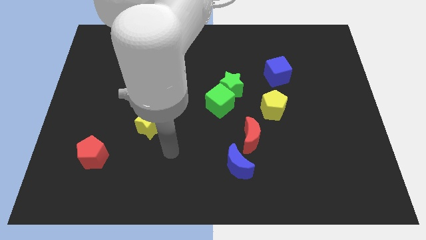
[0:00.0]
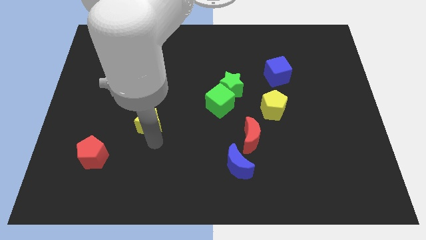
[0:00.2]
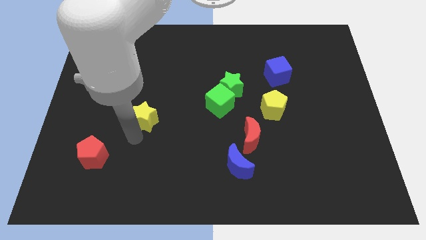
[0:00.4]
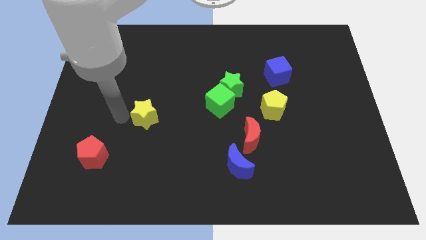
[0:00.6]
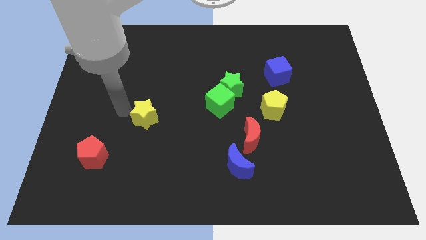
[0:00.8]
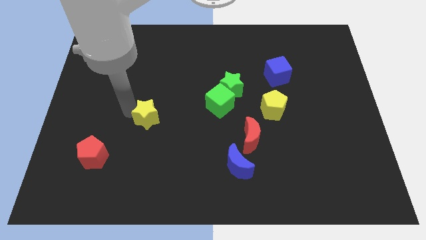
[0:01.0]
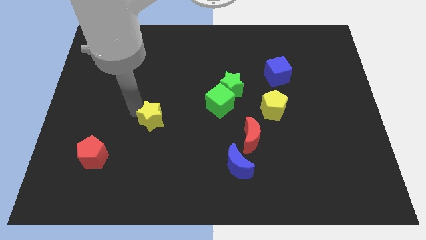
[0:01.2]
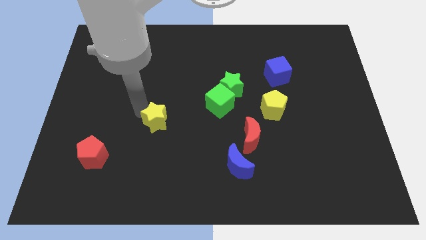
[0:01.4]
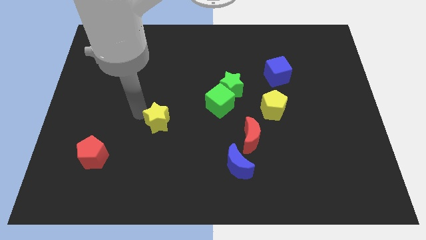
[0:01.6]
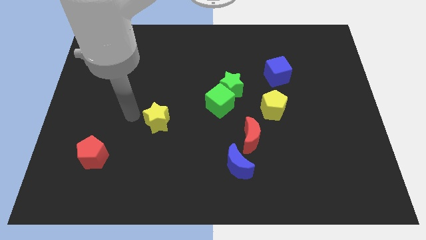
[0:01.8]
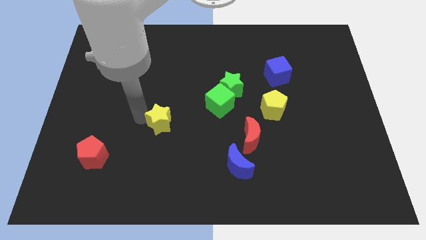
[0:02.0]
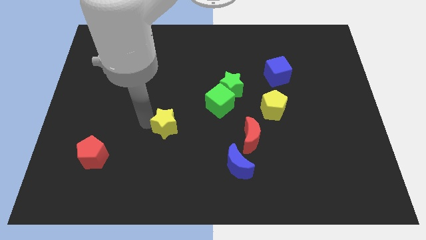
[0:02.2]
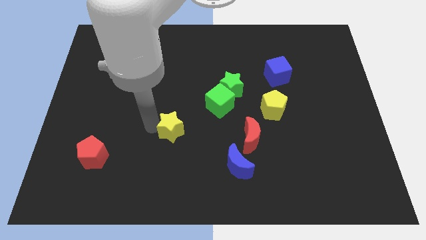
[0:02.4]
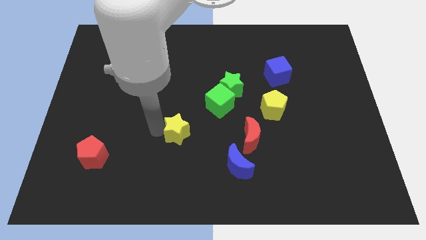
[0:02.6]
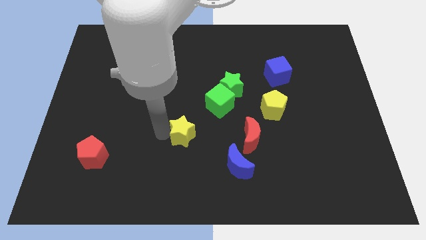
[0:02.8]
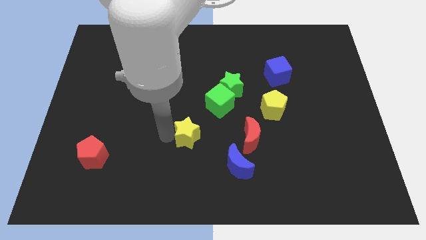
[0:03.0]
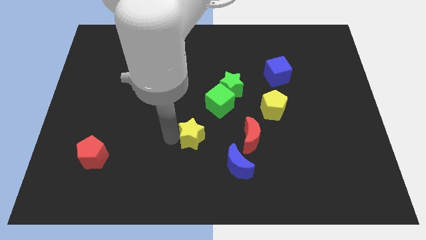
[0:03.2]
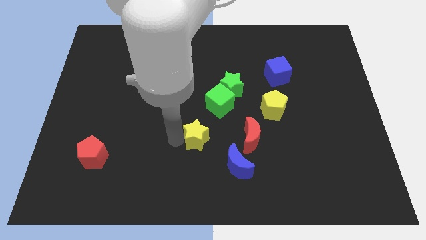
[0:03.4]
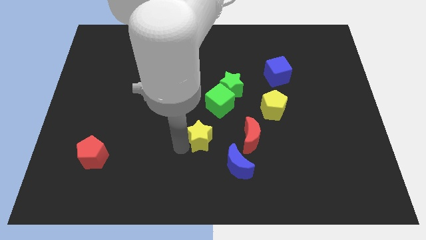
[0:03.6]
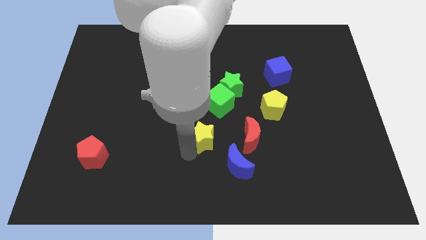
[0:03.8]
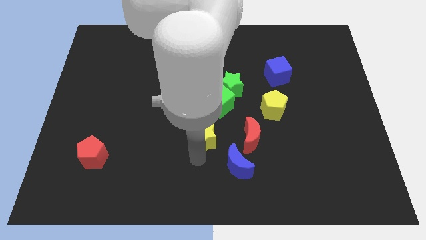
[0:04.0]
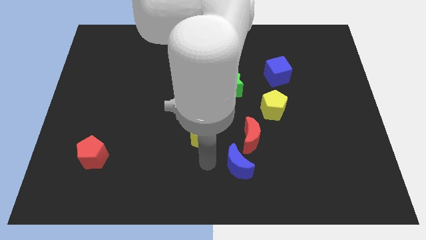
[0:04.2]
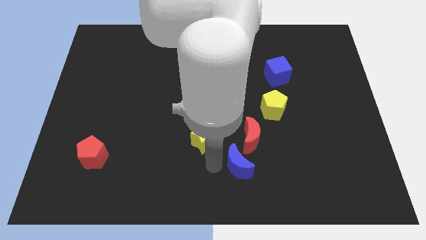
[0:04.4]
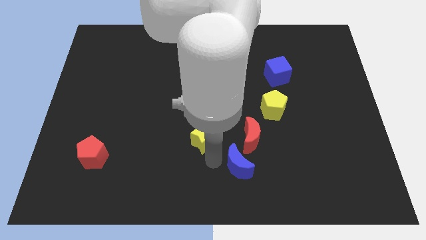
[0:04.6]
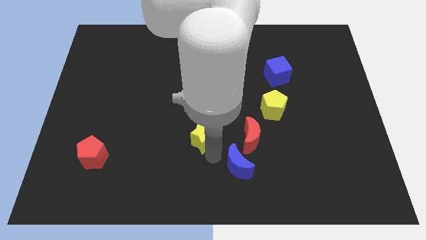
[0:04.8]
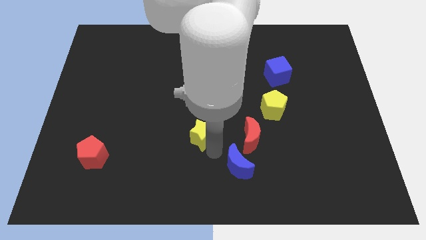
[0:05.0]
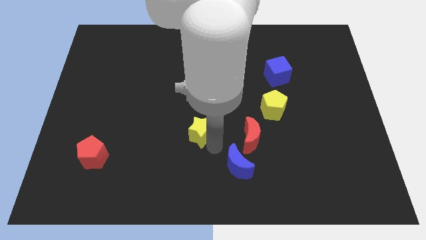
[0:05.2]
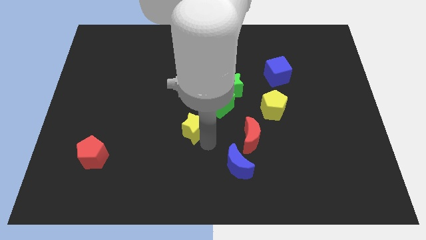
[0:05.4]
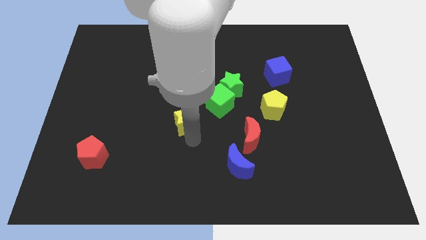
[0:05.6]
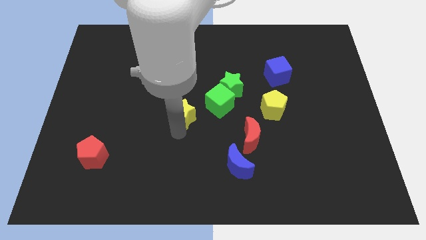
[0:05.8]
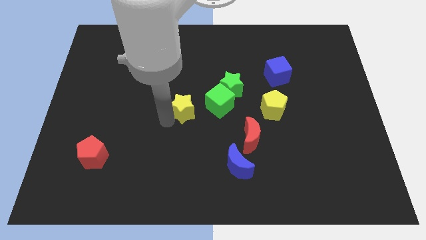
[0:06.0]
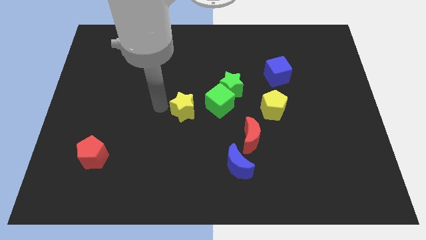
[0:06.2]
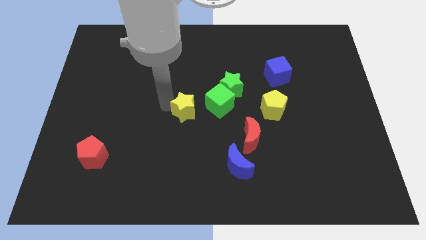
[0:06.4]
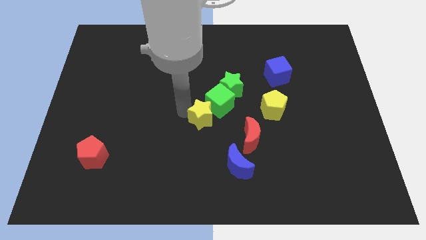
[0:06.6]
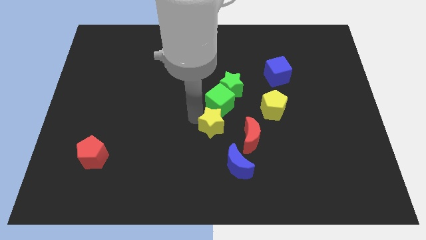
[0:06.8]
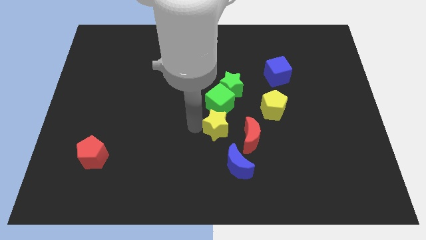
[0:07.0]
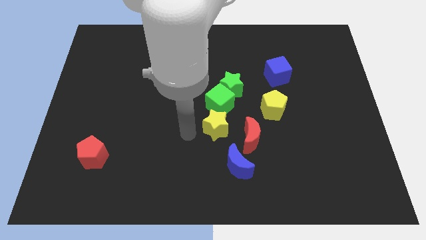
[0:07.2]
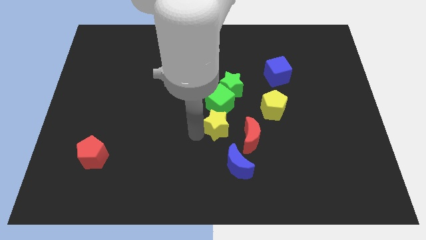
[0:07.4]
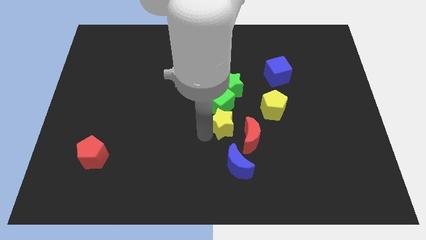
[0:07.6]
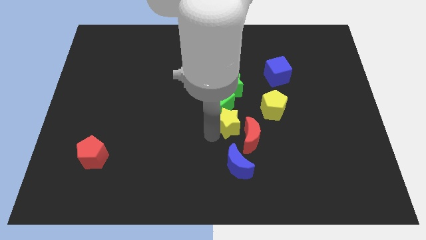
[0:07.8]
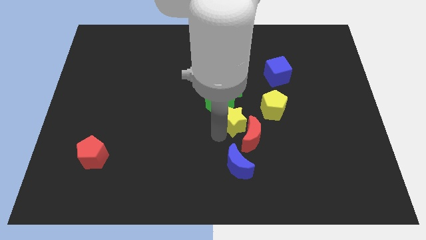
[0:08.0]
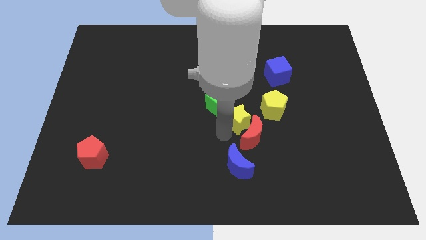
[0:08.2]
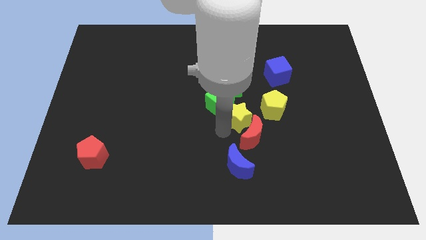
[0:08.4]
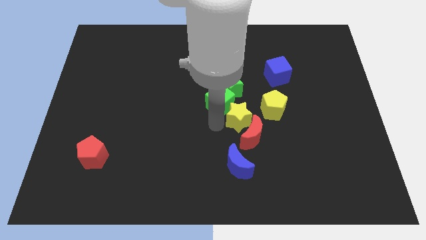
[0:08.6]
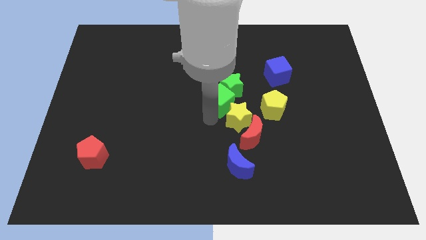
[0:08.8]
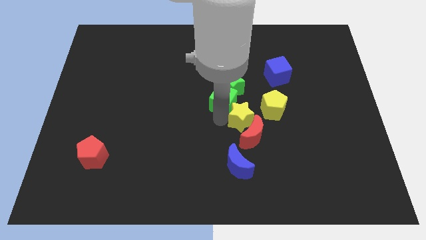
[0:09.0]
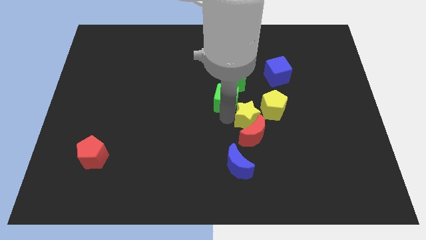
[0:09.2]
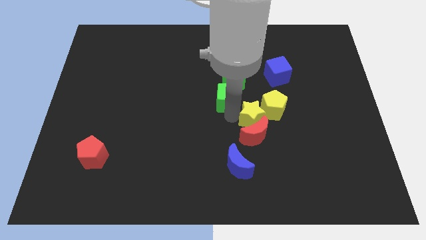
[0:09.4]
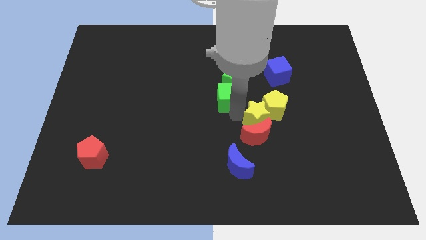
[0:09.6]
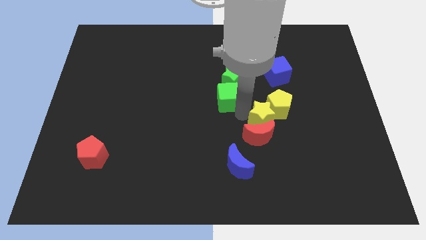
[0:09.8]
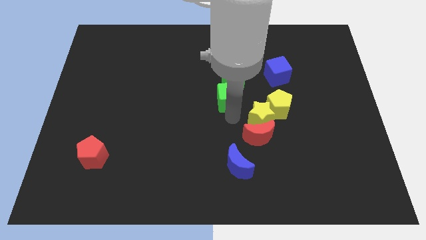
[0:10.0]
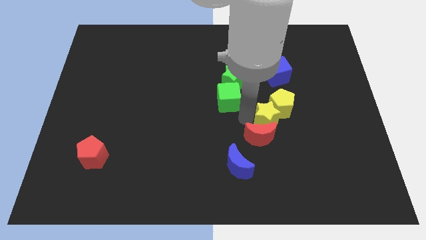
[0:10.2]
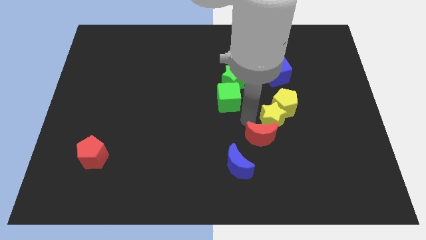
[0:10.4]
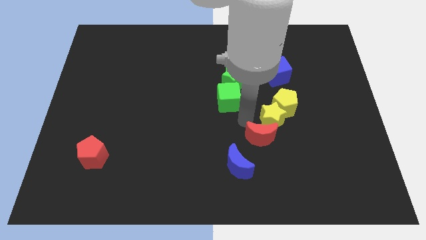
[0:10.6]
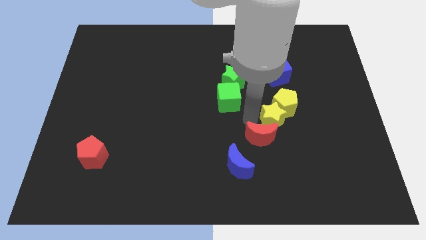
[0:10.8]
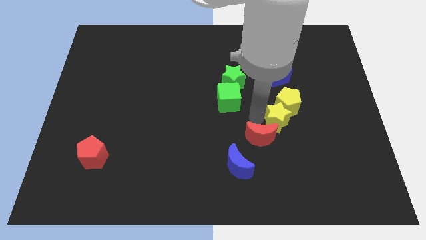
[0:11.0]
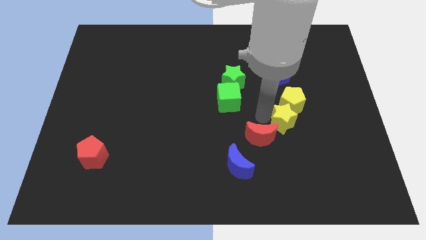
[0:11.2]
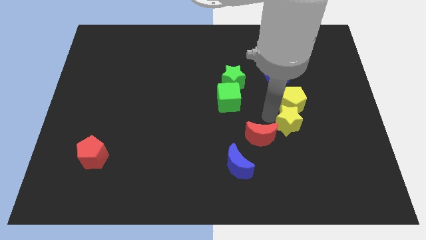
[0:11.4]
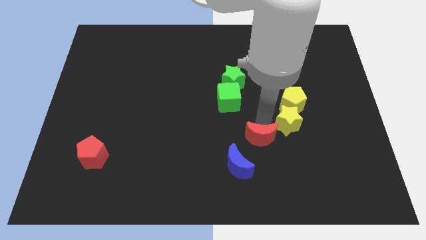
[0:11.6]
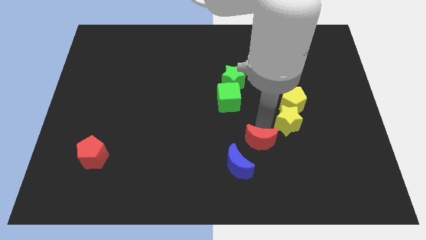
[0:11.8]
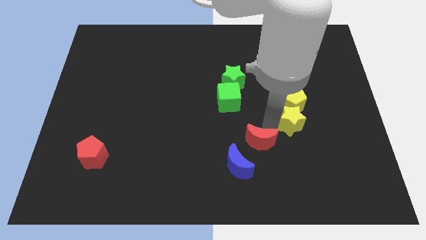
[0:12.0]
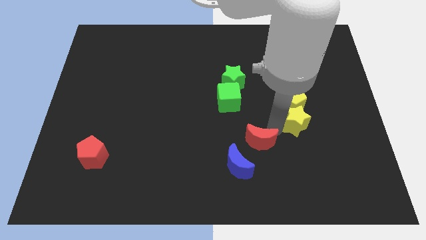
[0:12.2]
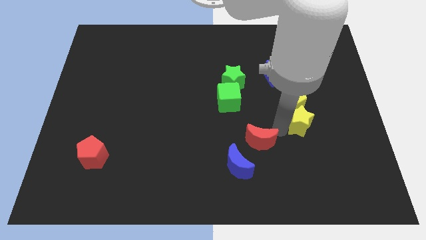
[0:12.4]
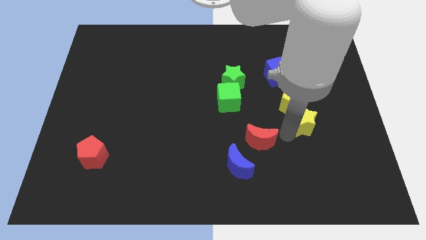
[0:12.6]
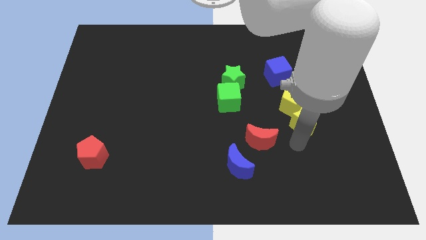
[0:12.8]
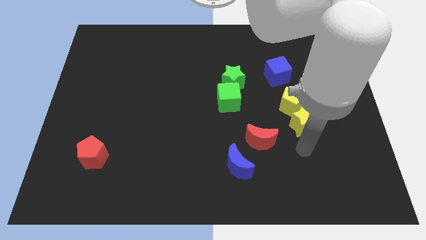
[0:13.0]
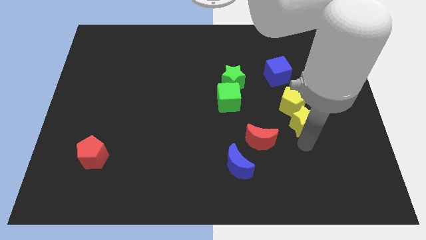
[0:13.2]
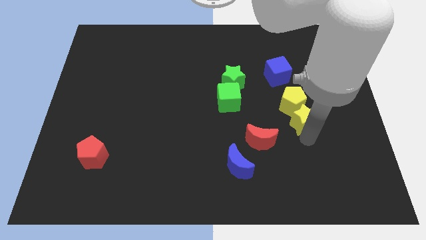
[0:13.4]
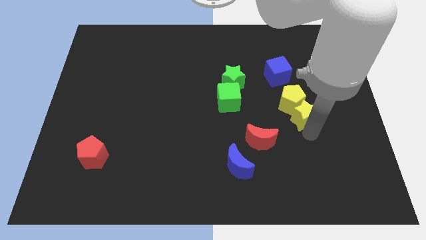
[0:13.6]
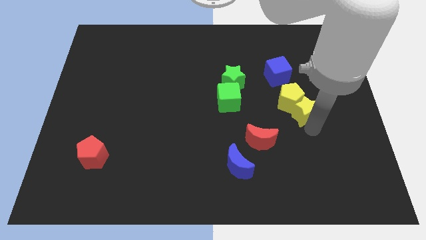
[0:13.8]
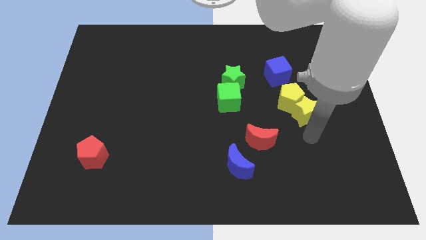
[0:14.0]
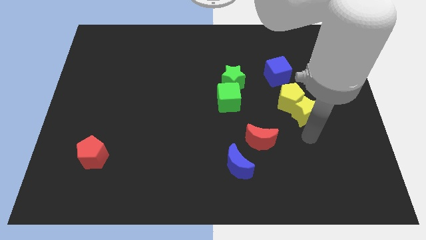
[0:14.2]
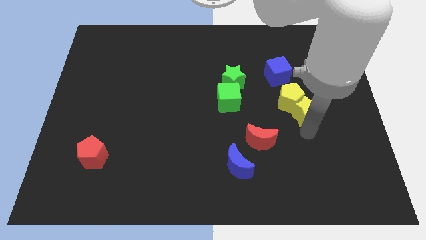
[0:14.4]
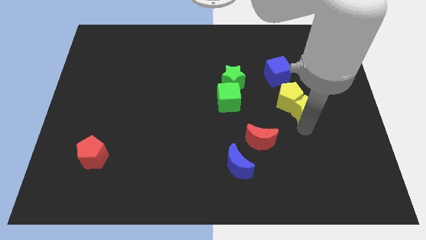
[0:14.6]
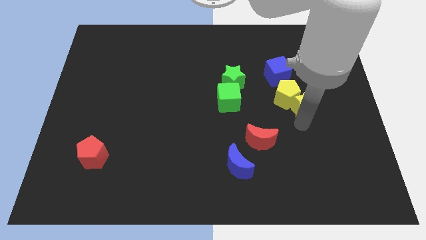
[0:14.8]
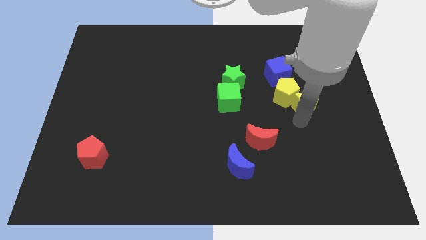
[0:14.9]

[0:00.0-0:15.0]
put the yellow star diagonally down and to the right of the blue cube
